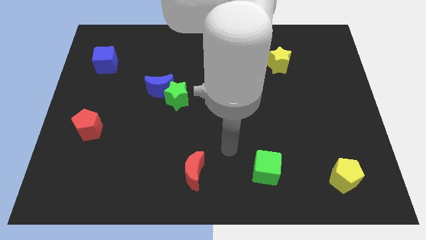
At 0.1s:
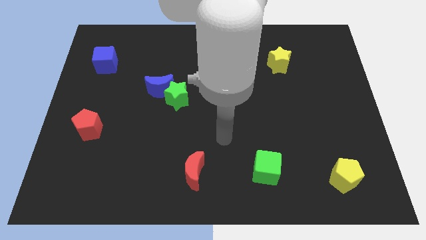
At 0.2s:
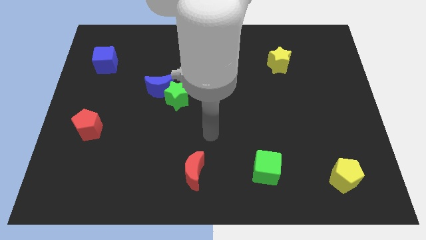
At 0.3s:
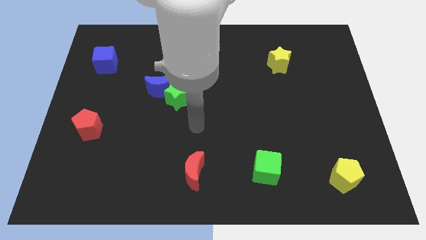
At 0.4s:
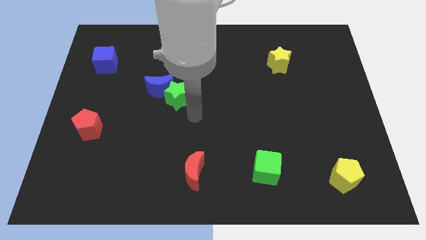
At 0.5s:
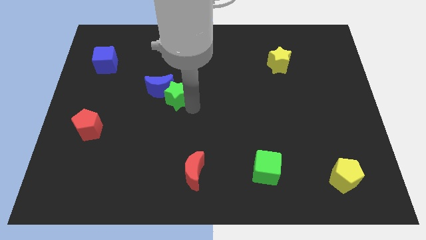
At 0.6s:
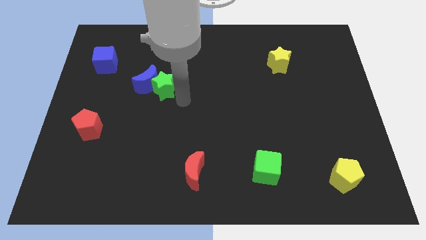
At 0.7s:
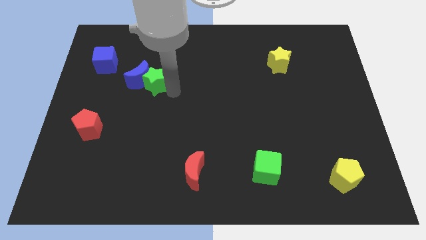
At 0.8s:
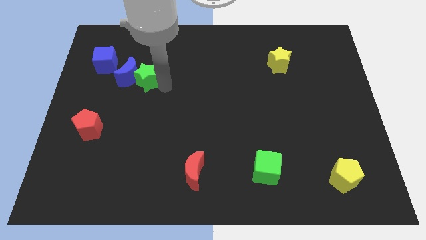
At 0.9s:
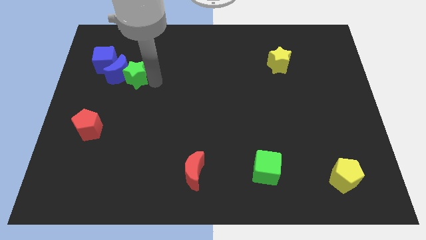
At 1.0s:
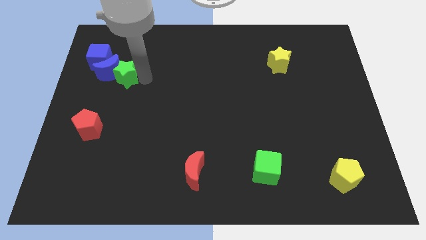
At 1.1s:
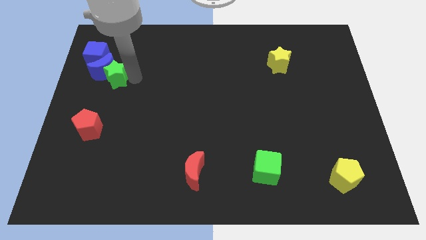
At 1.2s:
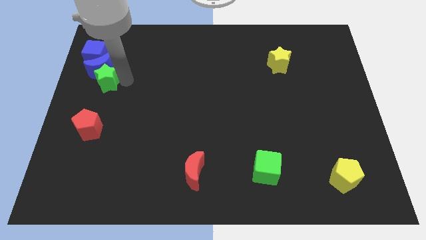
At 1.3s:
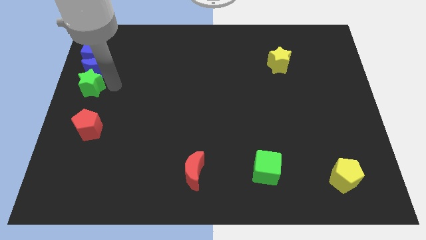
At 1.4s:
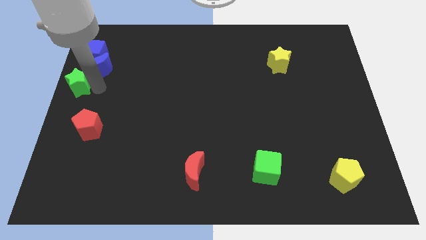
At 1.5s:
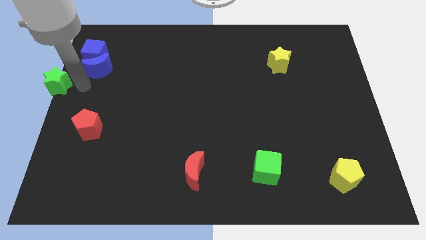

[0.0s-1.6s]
move the blue moon away from the green star

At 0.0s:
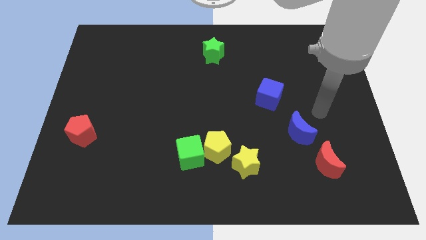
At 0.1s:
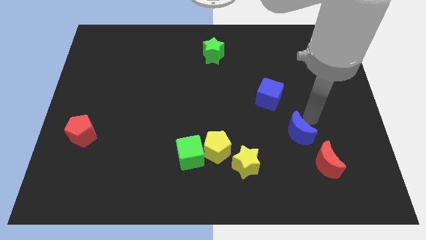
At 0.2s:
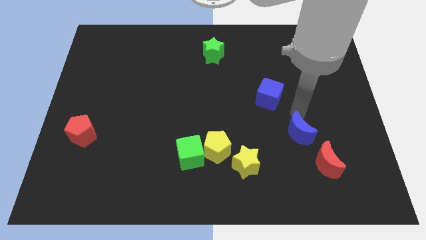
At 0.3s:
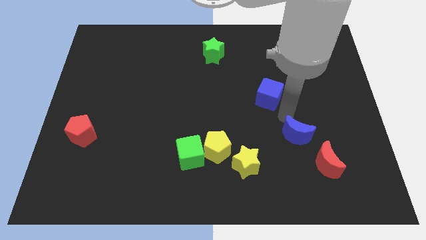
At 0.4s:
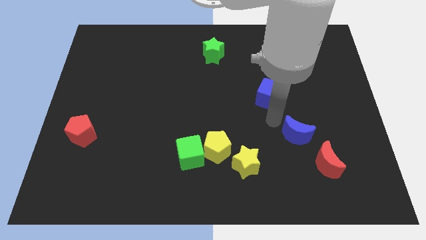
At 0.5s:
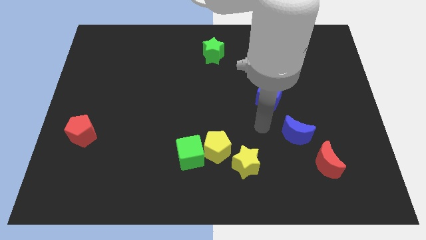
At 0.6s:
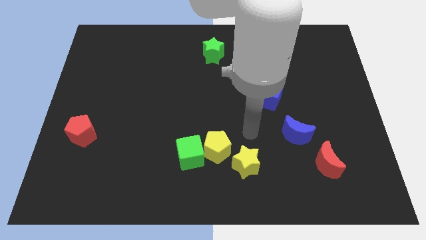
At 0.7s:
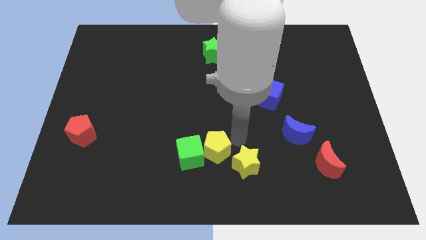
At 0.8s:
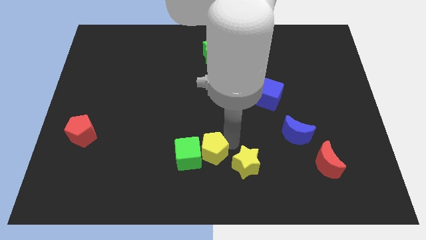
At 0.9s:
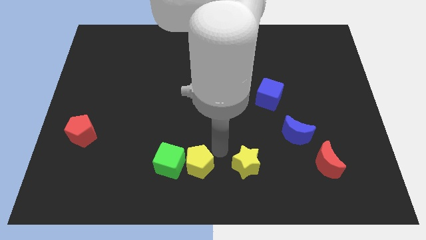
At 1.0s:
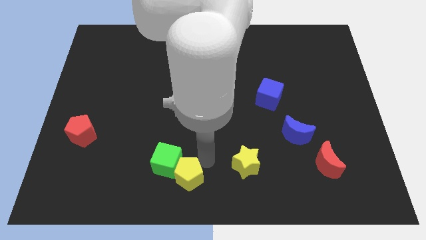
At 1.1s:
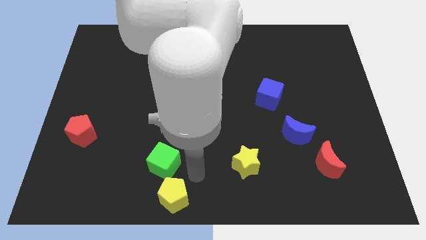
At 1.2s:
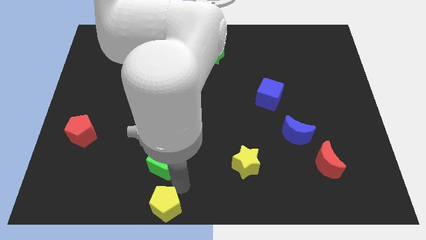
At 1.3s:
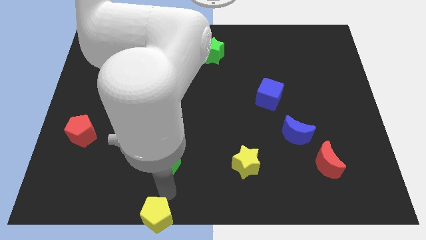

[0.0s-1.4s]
separate the green cube from the yellow pentagon

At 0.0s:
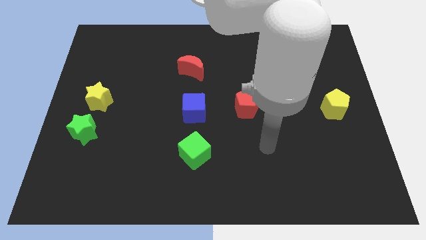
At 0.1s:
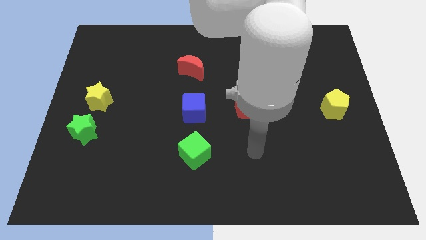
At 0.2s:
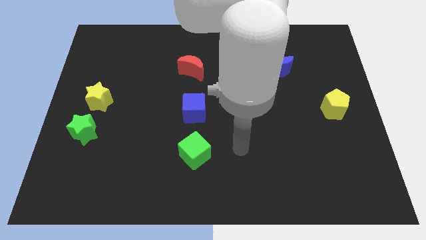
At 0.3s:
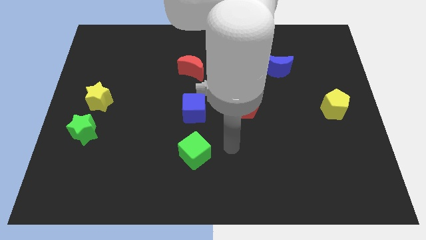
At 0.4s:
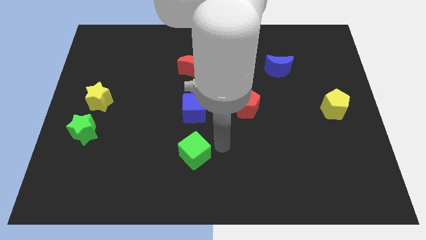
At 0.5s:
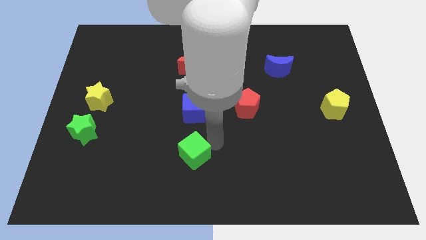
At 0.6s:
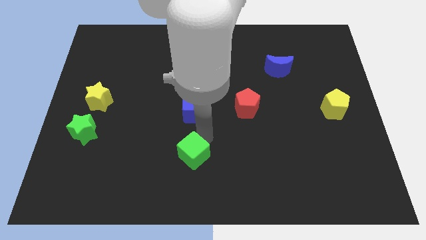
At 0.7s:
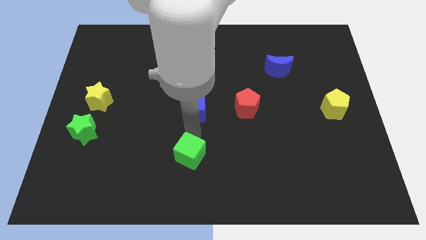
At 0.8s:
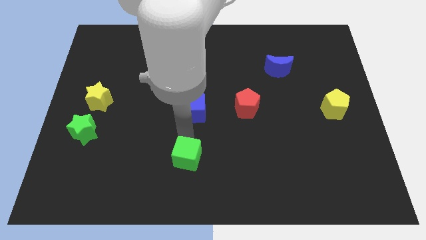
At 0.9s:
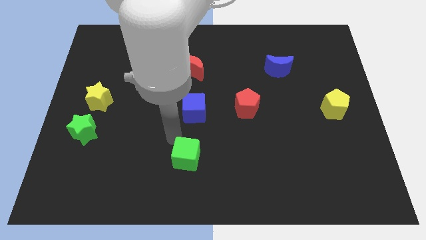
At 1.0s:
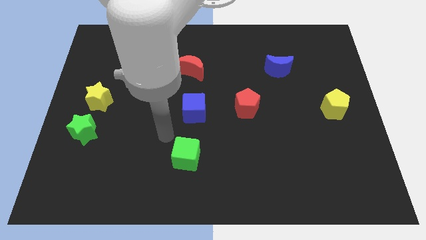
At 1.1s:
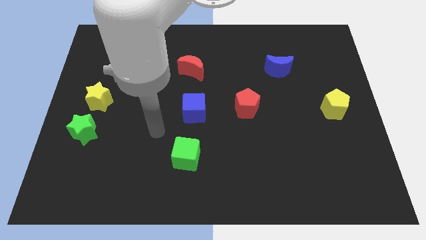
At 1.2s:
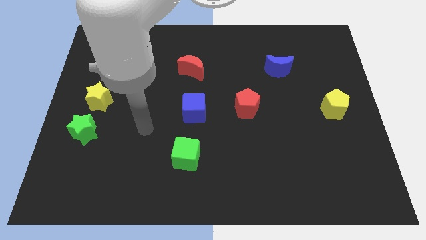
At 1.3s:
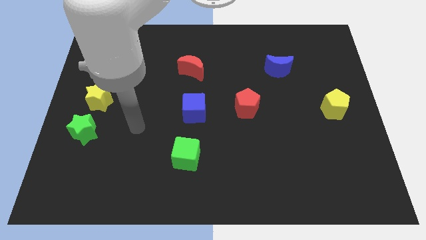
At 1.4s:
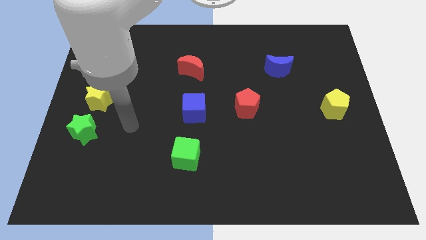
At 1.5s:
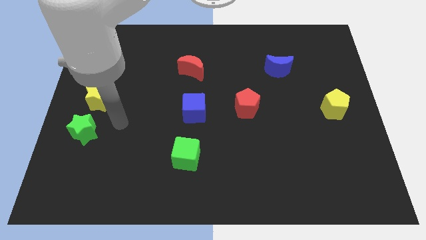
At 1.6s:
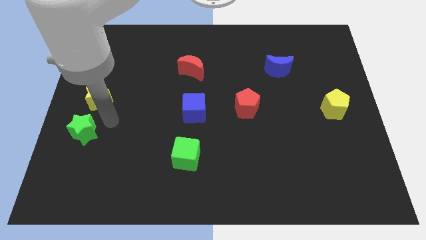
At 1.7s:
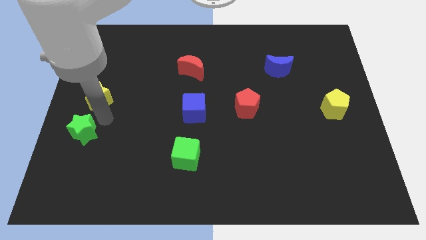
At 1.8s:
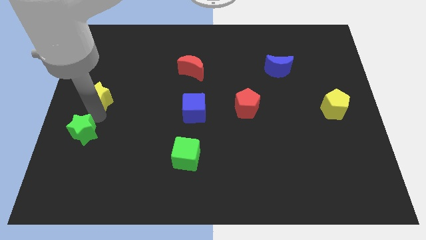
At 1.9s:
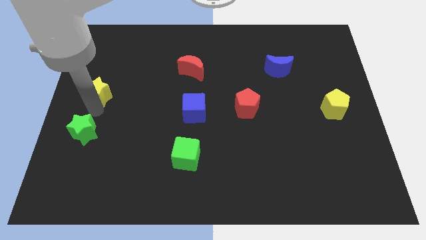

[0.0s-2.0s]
separate the green star from the yellow star

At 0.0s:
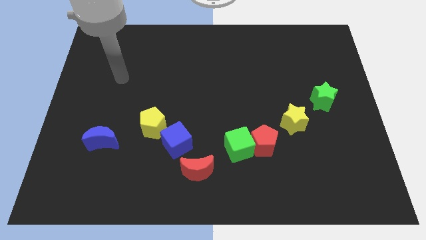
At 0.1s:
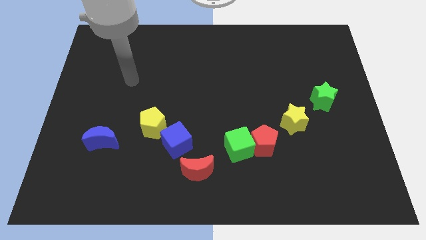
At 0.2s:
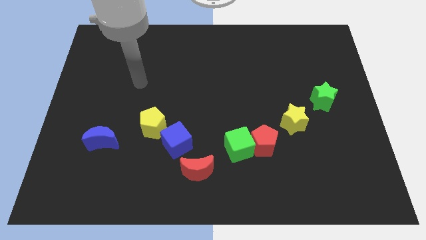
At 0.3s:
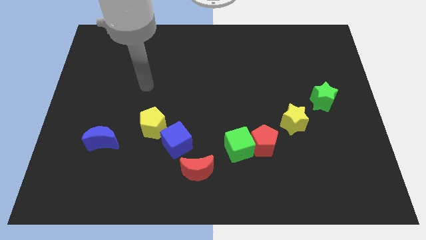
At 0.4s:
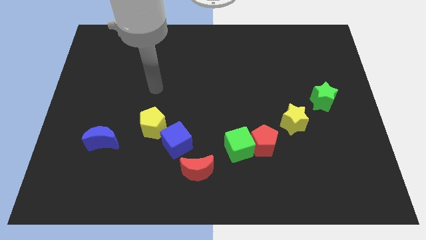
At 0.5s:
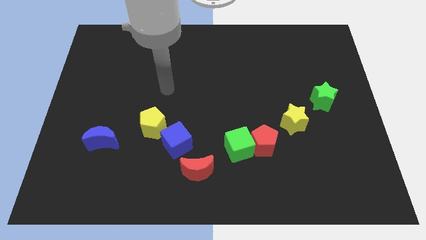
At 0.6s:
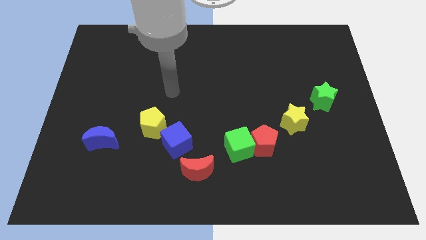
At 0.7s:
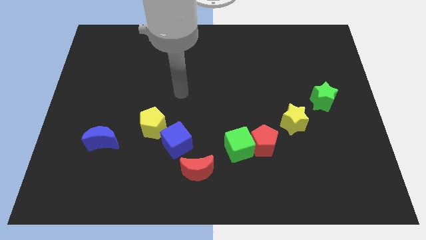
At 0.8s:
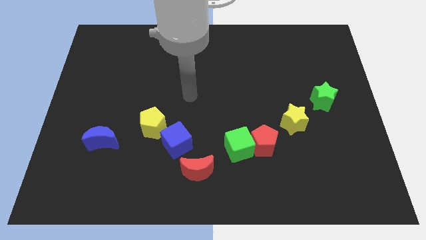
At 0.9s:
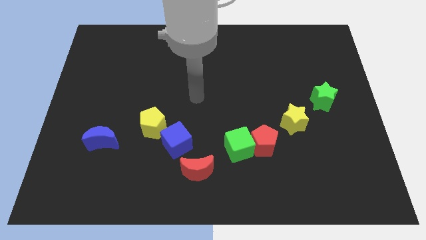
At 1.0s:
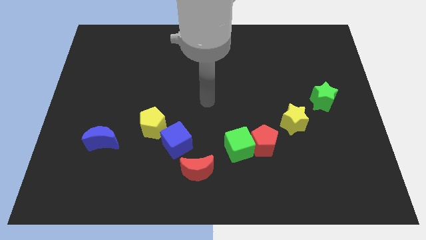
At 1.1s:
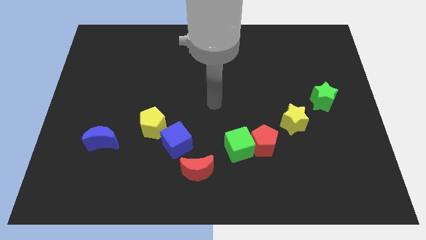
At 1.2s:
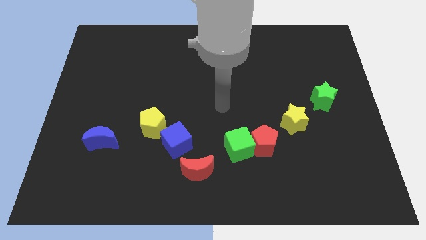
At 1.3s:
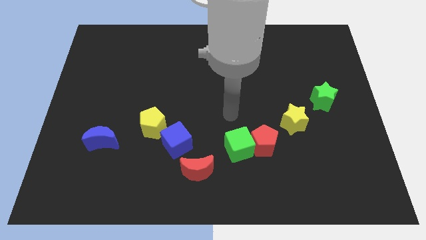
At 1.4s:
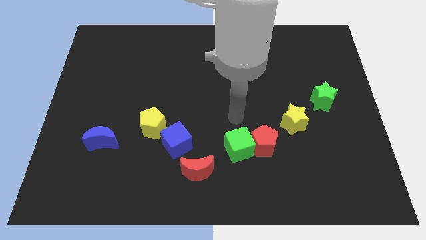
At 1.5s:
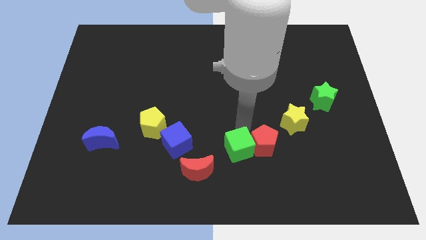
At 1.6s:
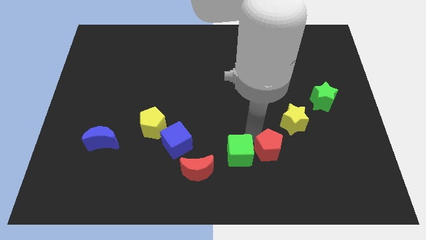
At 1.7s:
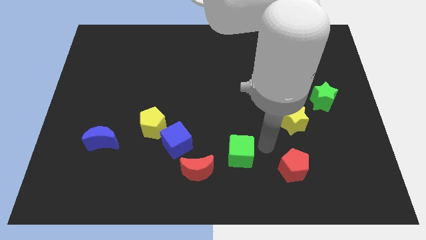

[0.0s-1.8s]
move the green cube away from the red pentagon

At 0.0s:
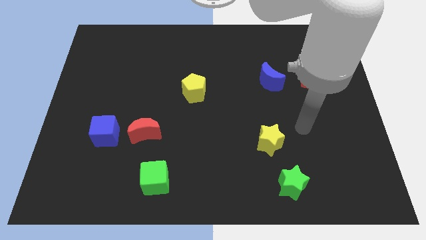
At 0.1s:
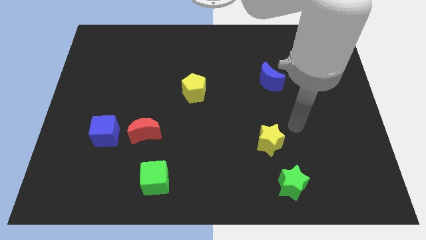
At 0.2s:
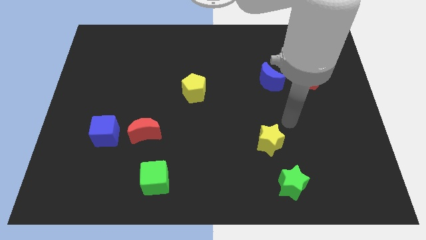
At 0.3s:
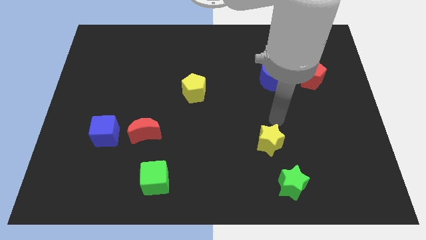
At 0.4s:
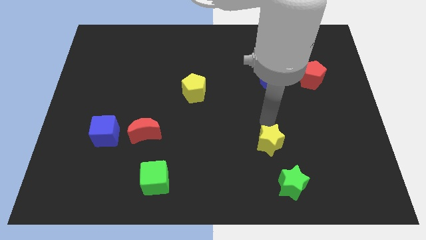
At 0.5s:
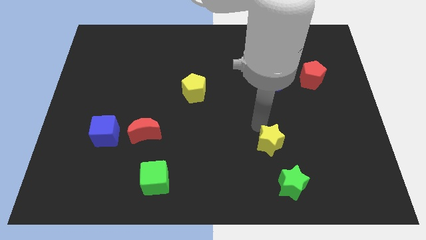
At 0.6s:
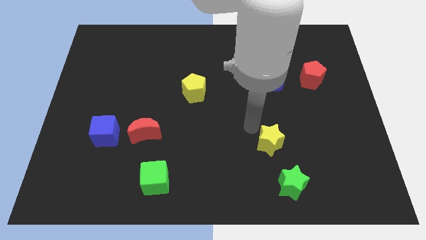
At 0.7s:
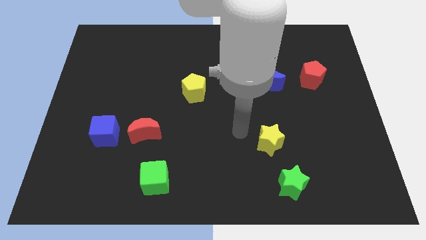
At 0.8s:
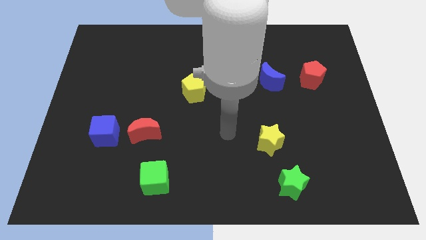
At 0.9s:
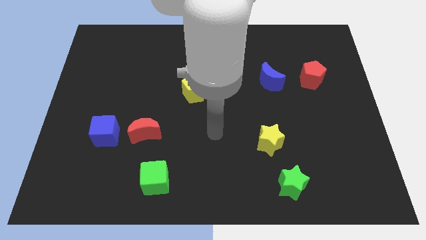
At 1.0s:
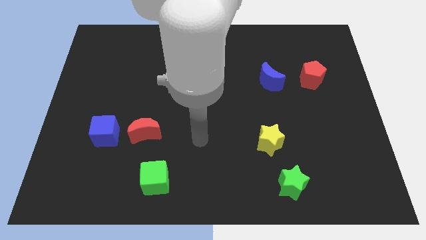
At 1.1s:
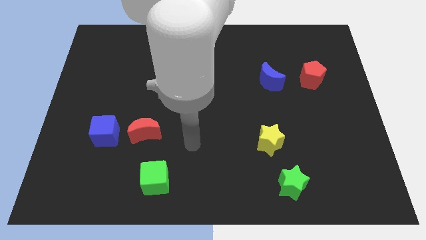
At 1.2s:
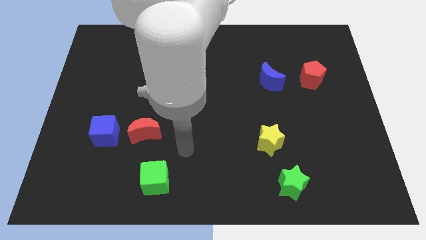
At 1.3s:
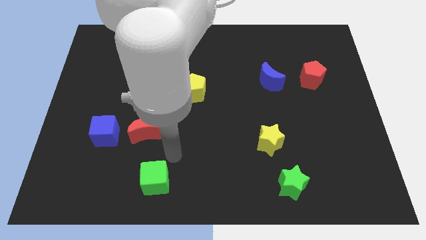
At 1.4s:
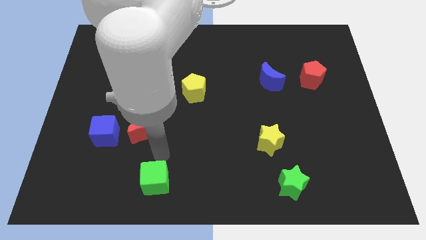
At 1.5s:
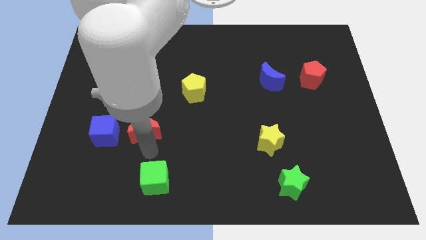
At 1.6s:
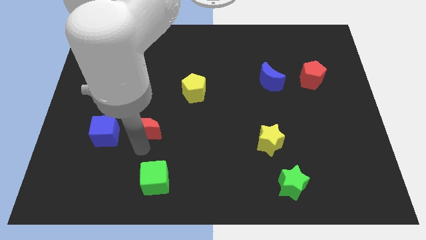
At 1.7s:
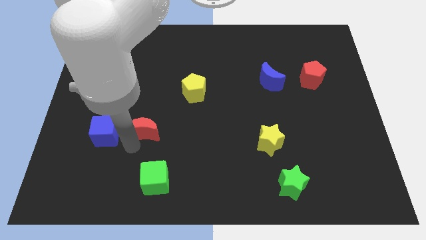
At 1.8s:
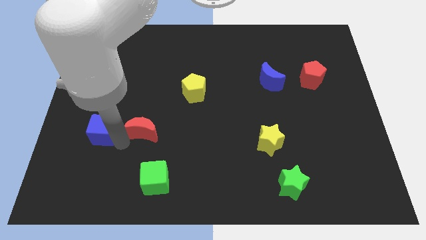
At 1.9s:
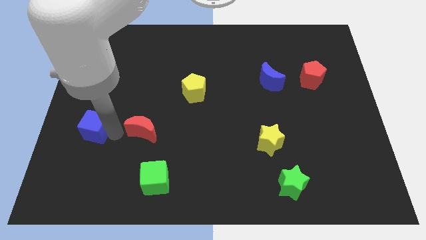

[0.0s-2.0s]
move the red moon away from the blue cube

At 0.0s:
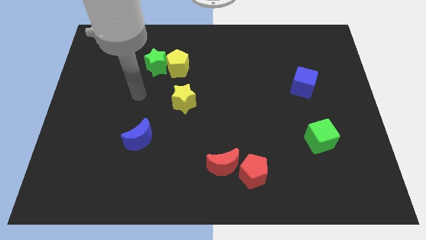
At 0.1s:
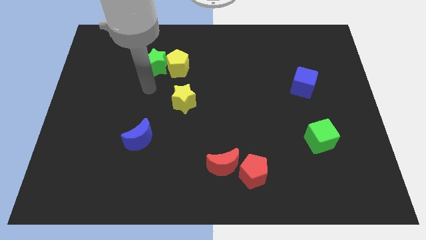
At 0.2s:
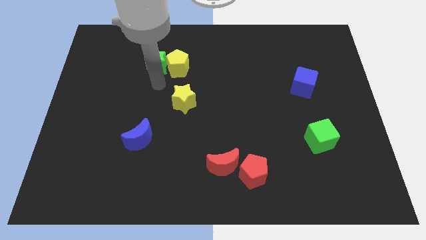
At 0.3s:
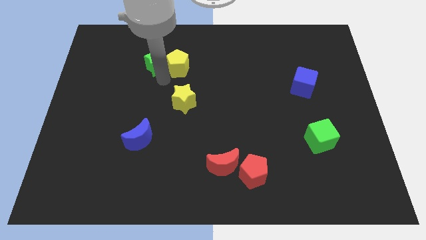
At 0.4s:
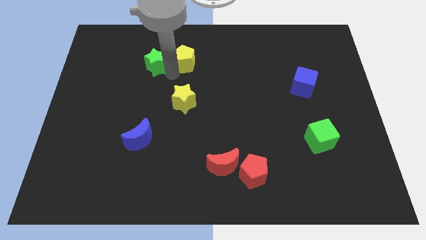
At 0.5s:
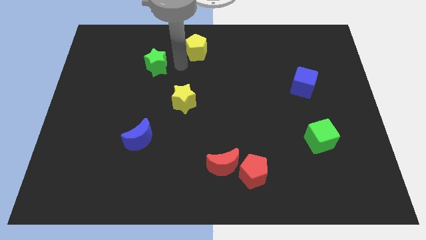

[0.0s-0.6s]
move the green star away from the yellow pentagon
